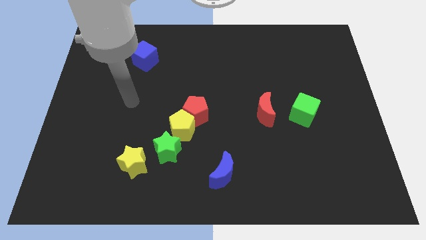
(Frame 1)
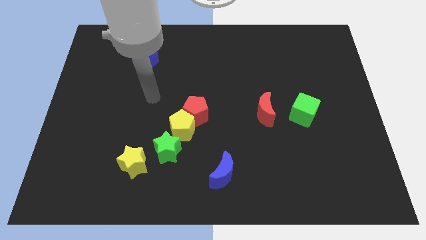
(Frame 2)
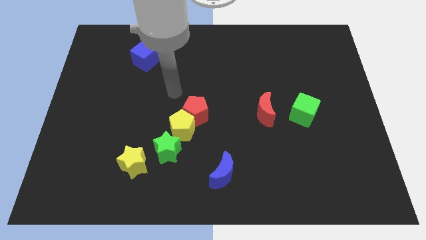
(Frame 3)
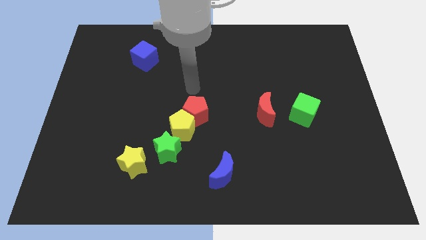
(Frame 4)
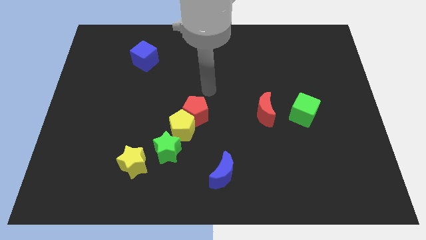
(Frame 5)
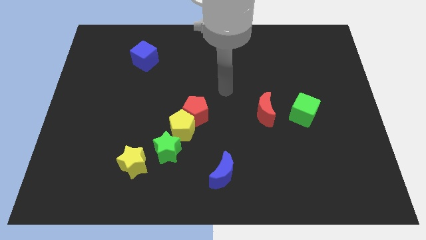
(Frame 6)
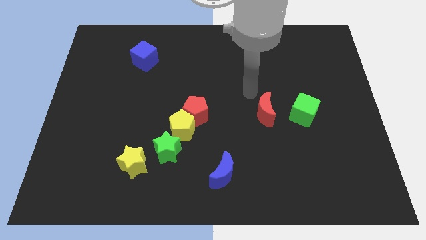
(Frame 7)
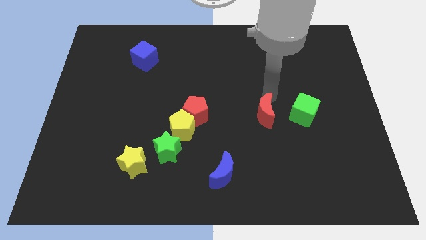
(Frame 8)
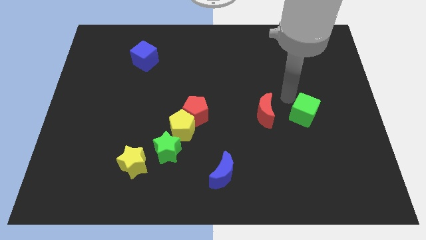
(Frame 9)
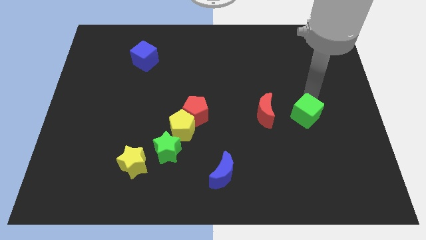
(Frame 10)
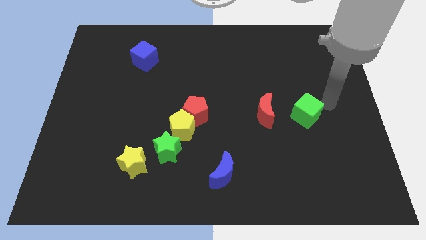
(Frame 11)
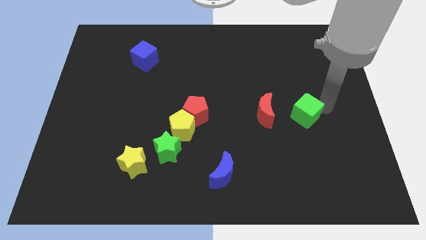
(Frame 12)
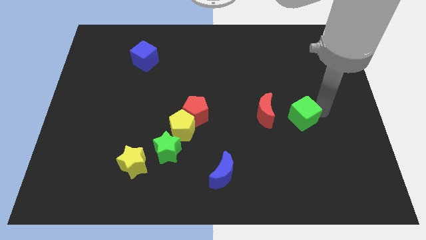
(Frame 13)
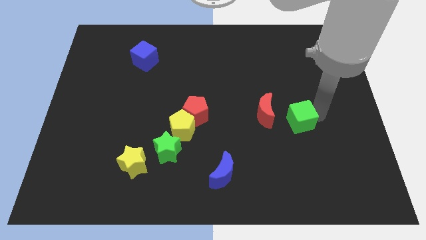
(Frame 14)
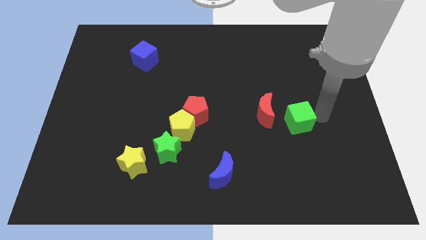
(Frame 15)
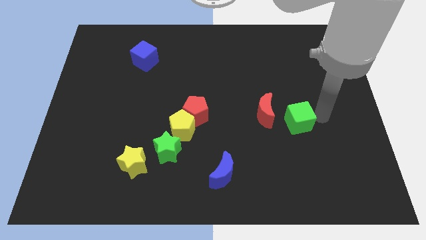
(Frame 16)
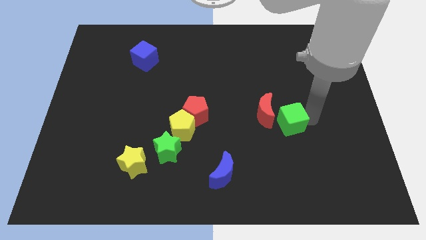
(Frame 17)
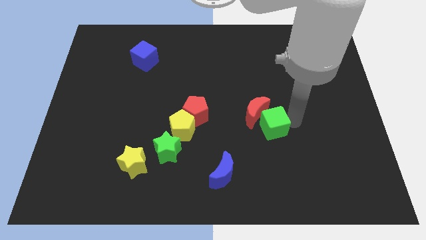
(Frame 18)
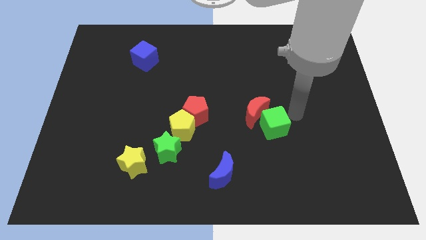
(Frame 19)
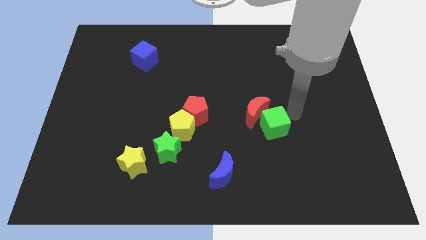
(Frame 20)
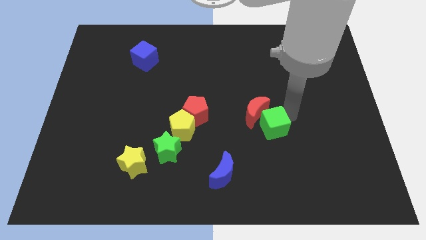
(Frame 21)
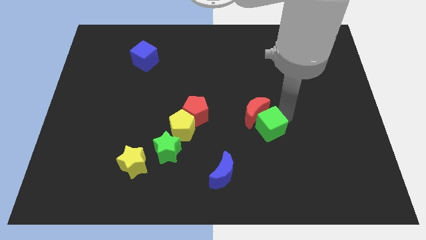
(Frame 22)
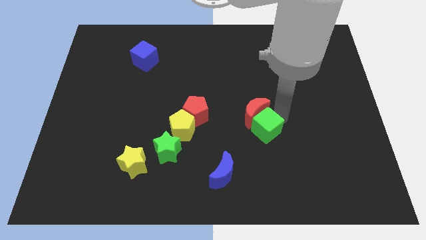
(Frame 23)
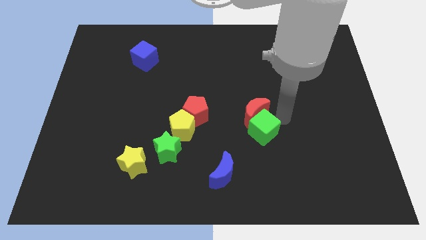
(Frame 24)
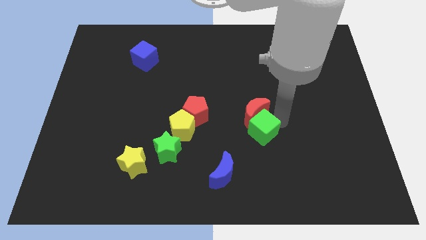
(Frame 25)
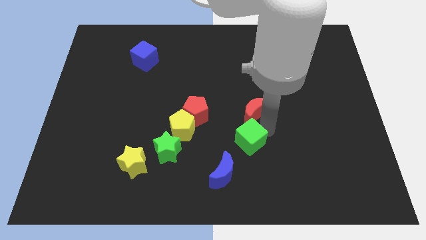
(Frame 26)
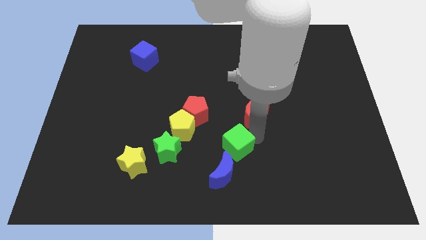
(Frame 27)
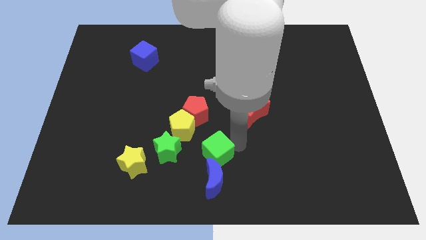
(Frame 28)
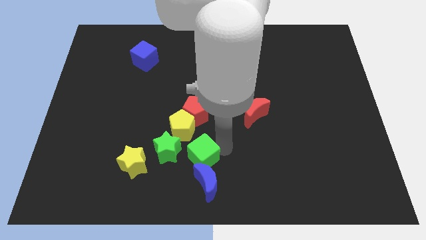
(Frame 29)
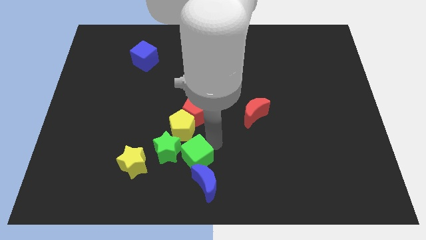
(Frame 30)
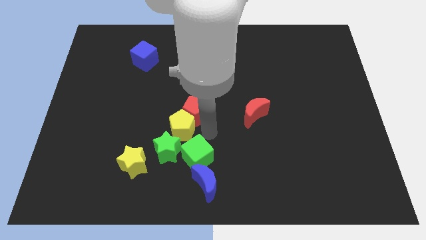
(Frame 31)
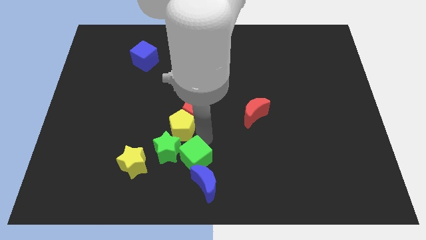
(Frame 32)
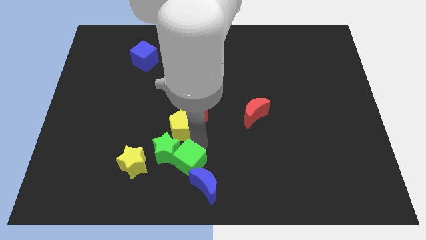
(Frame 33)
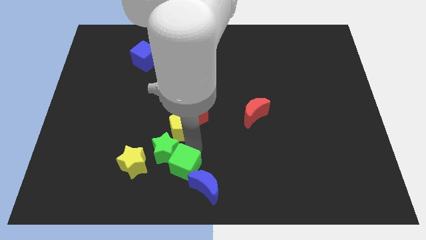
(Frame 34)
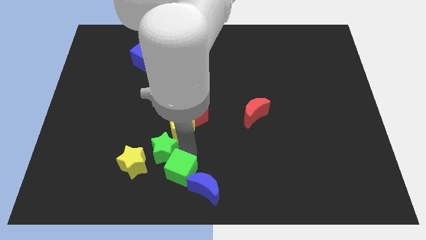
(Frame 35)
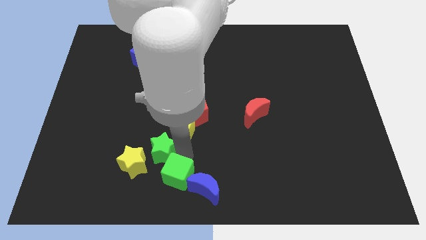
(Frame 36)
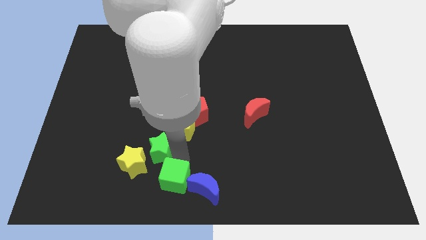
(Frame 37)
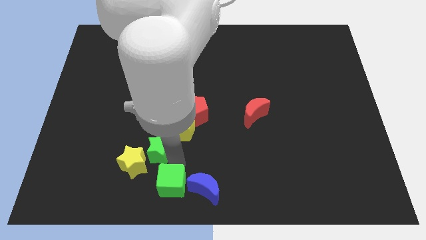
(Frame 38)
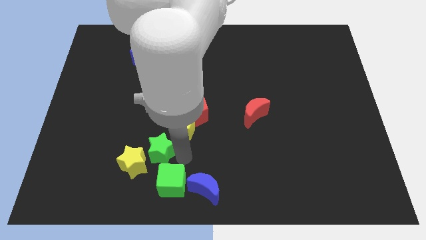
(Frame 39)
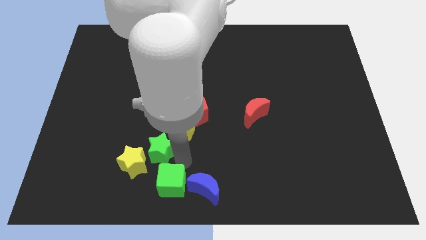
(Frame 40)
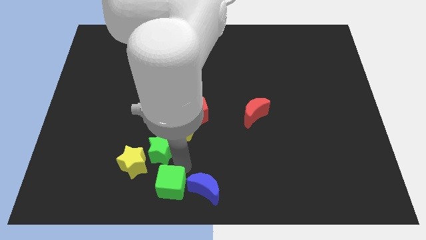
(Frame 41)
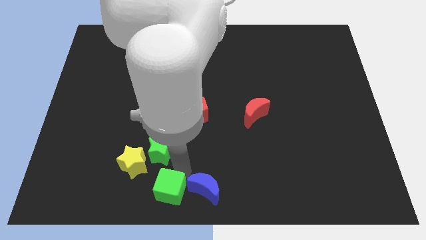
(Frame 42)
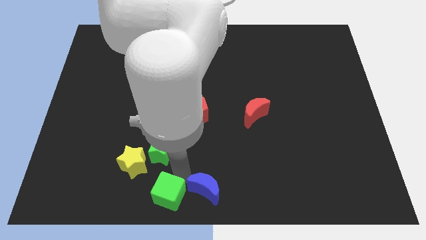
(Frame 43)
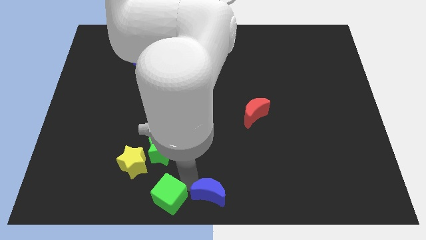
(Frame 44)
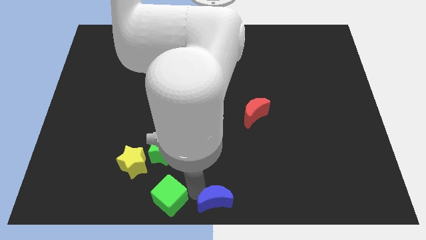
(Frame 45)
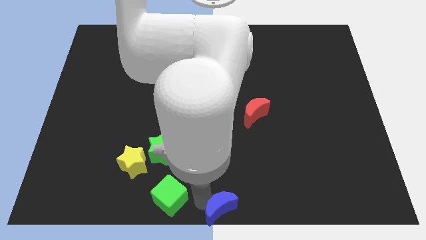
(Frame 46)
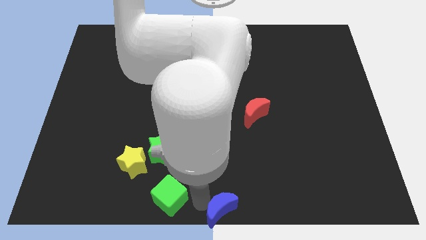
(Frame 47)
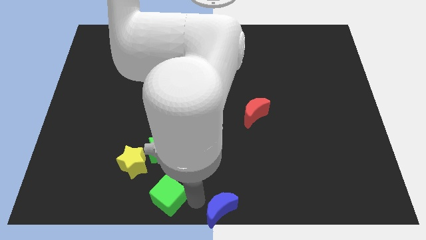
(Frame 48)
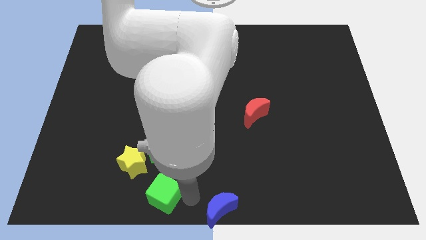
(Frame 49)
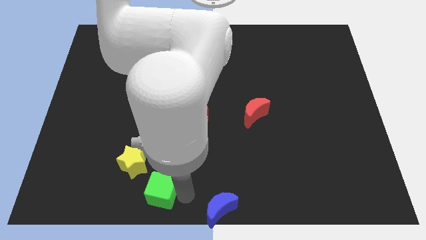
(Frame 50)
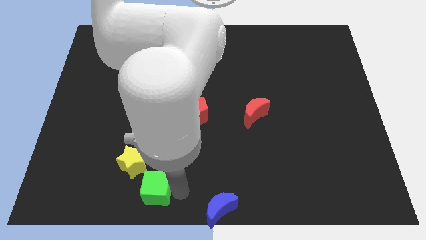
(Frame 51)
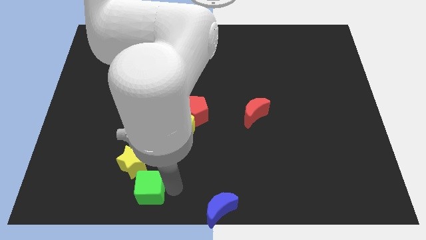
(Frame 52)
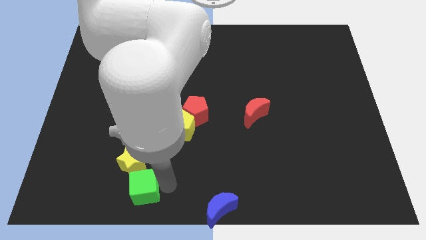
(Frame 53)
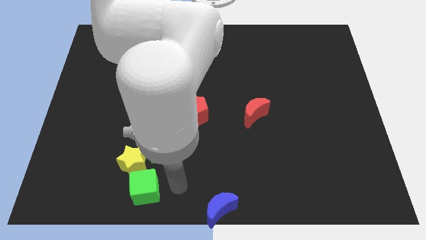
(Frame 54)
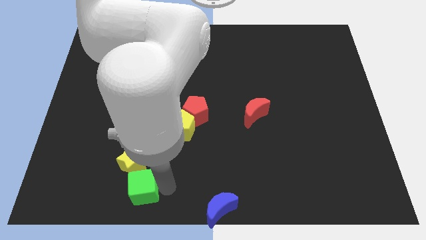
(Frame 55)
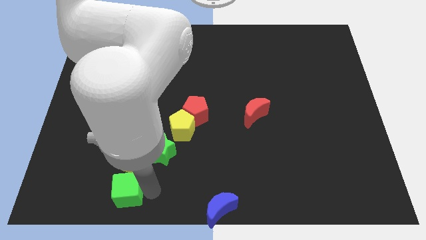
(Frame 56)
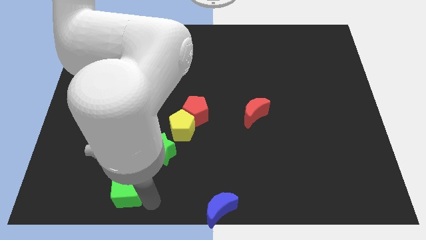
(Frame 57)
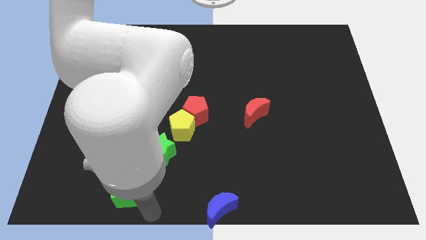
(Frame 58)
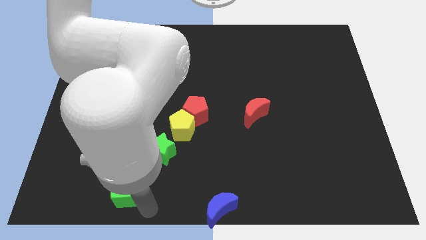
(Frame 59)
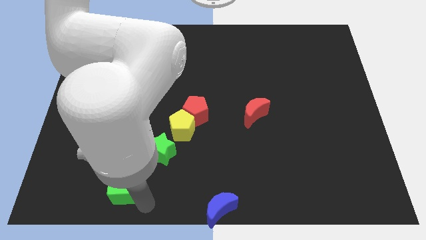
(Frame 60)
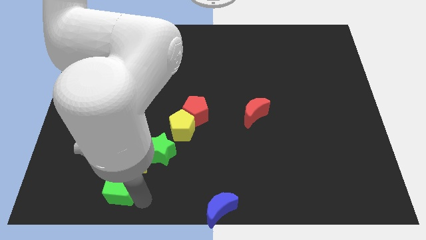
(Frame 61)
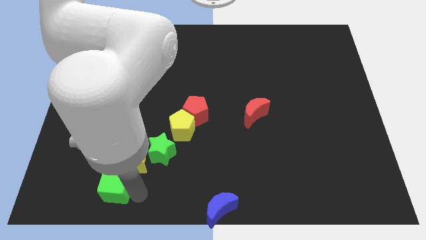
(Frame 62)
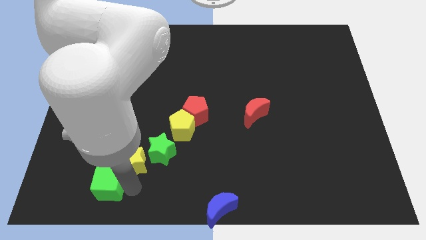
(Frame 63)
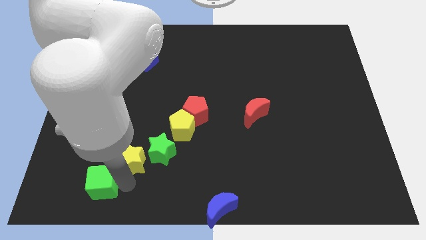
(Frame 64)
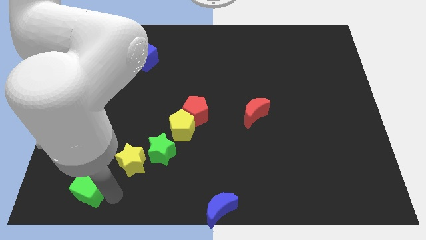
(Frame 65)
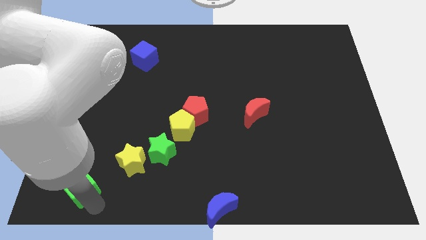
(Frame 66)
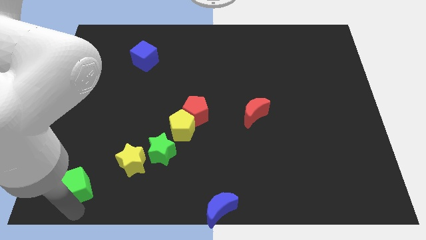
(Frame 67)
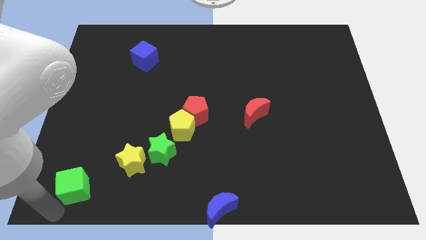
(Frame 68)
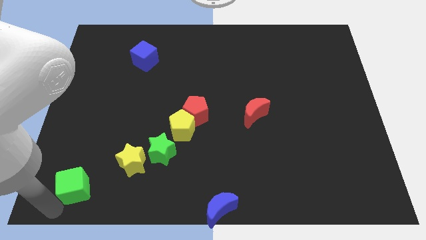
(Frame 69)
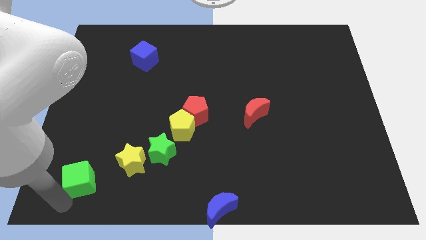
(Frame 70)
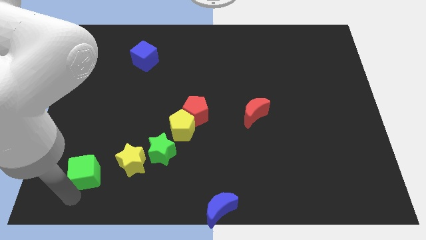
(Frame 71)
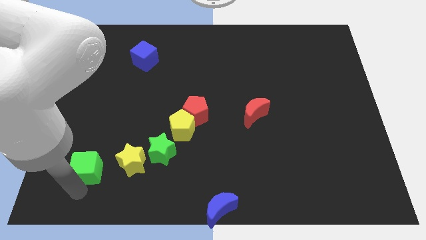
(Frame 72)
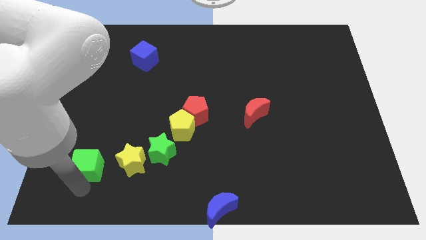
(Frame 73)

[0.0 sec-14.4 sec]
slide the green cube left of the green star

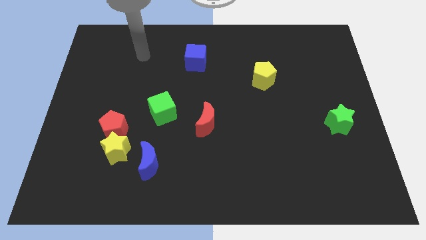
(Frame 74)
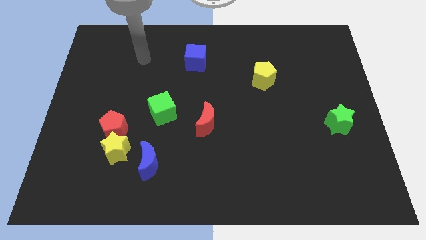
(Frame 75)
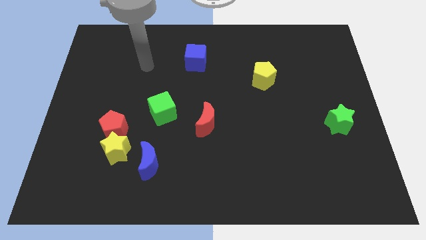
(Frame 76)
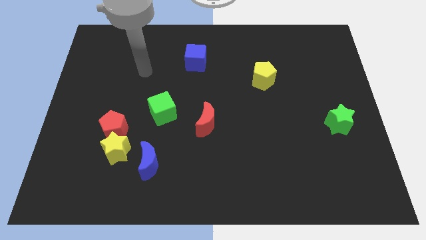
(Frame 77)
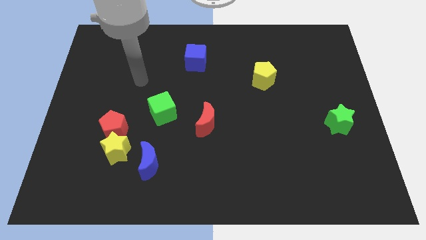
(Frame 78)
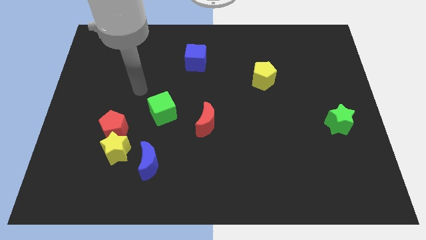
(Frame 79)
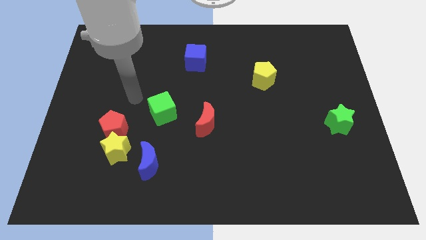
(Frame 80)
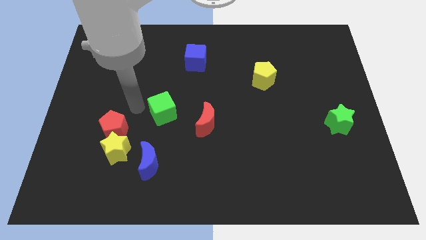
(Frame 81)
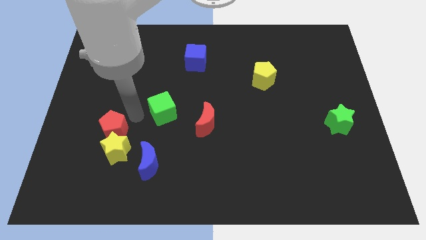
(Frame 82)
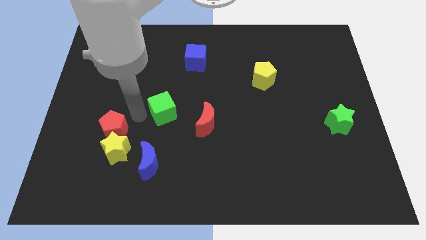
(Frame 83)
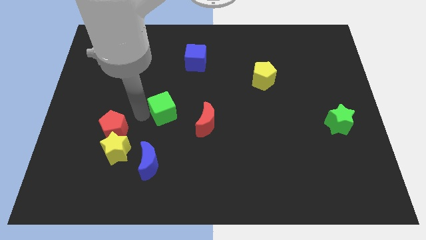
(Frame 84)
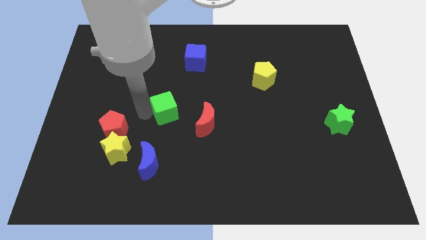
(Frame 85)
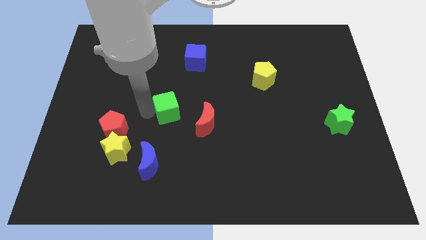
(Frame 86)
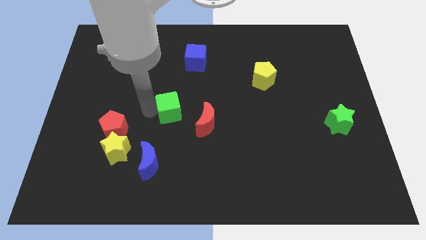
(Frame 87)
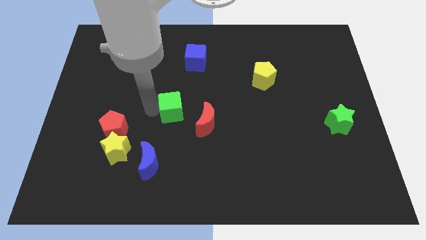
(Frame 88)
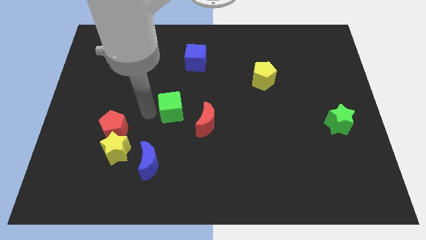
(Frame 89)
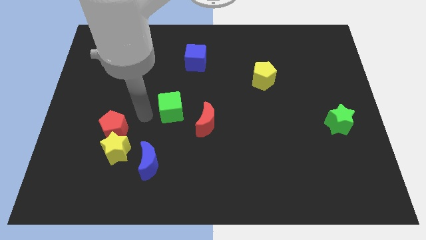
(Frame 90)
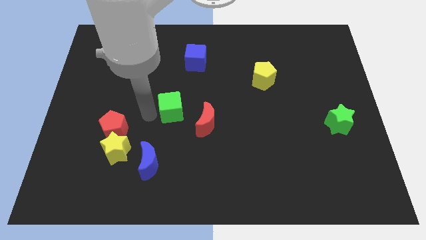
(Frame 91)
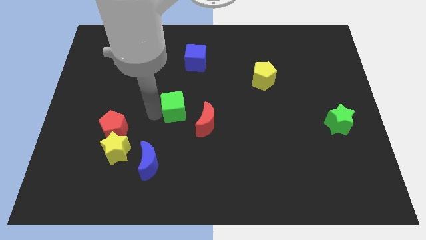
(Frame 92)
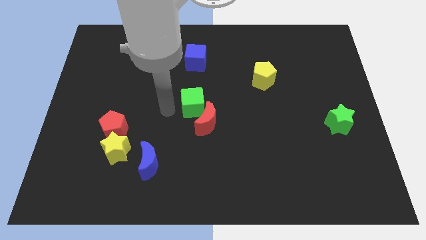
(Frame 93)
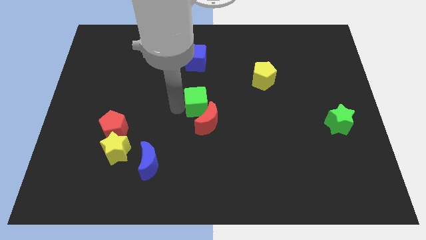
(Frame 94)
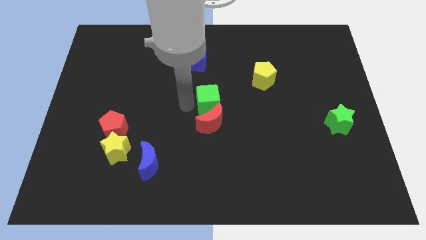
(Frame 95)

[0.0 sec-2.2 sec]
push the green cube diagonally up and to the right of the red moon
